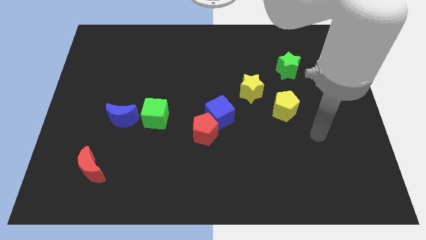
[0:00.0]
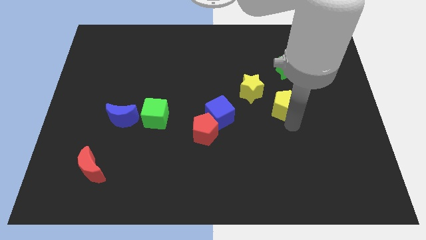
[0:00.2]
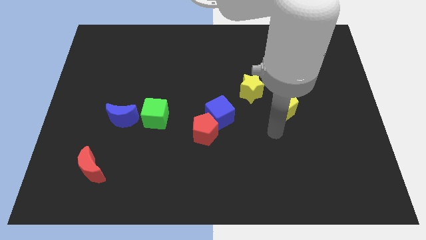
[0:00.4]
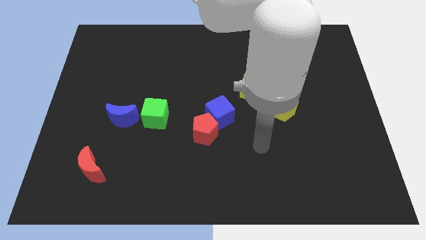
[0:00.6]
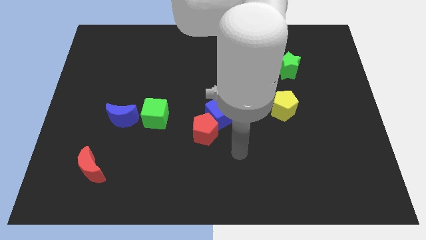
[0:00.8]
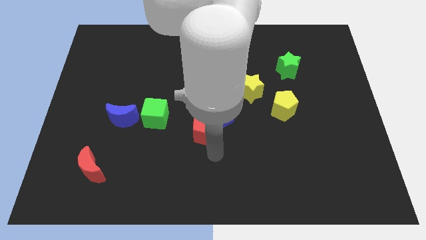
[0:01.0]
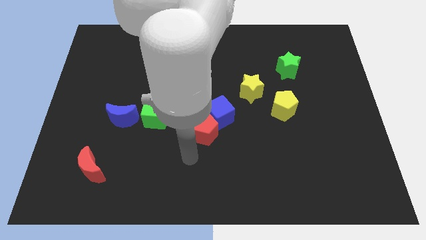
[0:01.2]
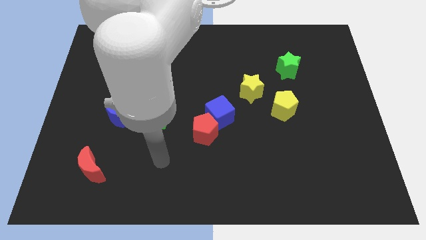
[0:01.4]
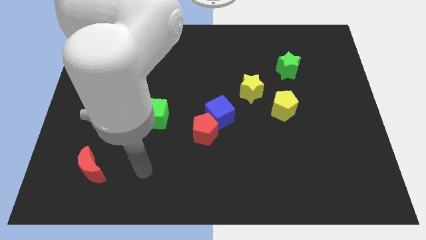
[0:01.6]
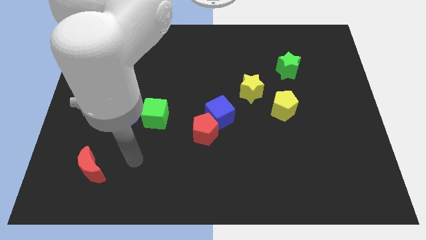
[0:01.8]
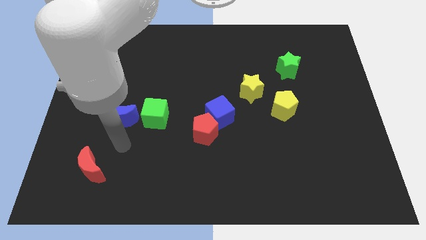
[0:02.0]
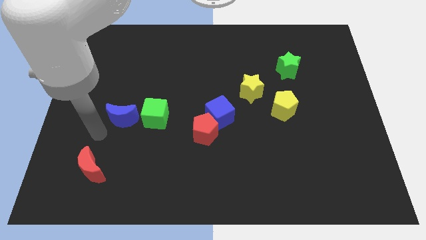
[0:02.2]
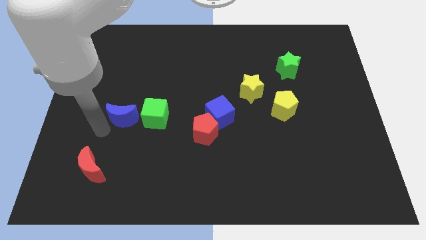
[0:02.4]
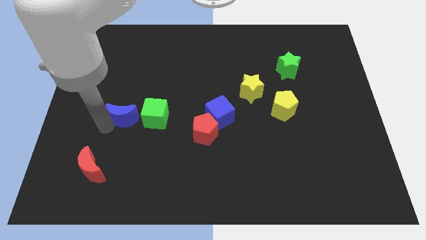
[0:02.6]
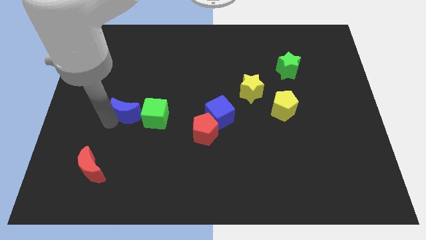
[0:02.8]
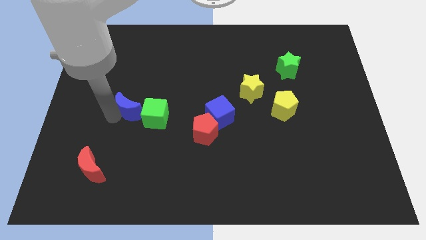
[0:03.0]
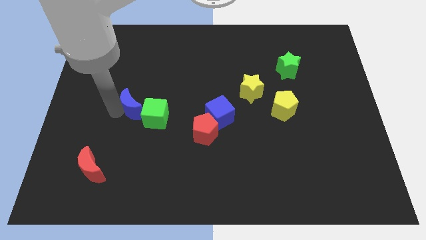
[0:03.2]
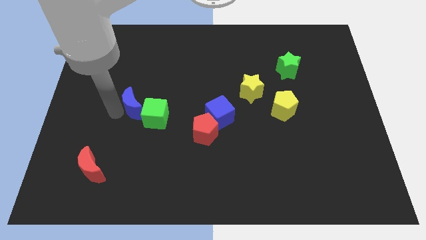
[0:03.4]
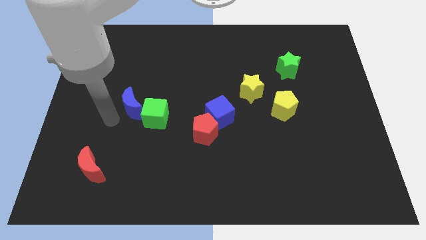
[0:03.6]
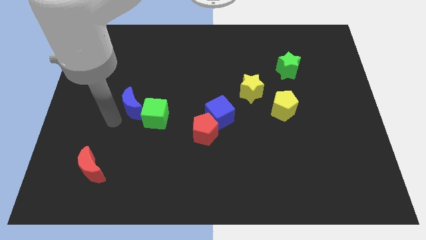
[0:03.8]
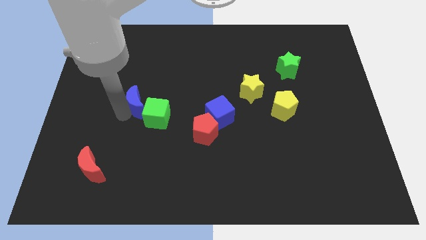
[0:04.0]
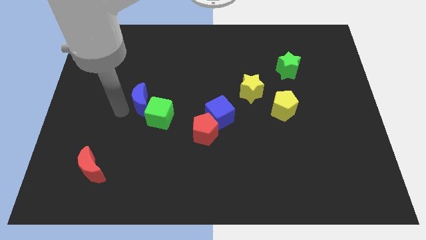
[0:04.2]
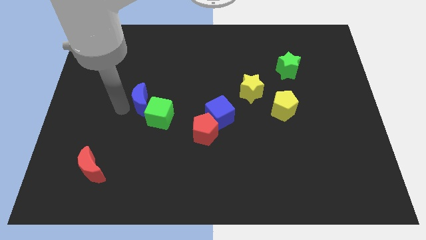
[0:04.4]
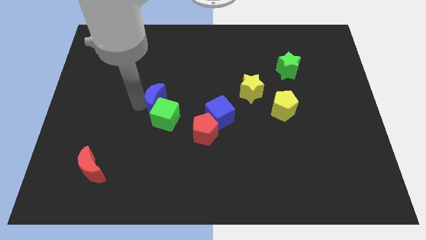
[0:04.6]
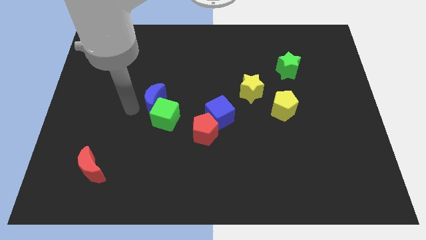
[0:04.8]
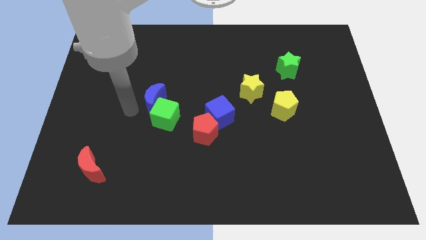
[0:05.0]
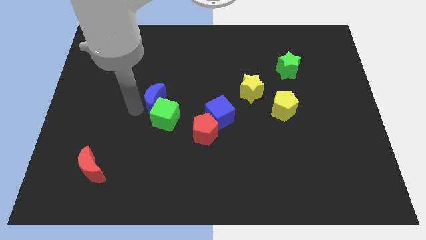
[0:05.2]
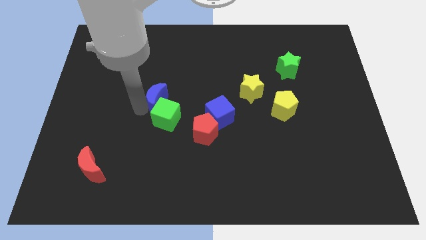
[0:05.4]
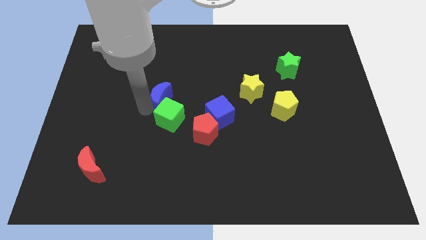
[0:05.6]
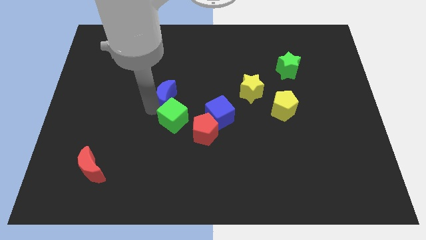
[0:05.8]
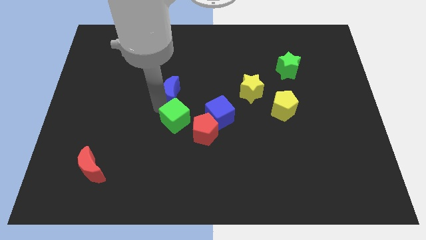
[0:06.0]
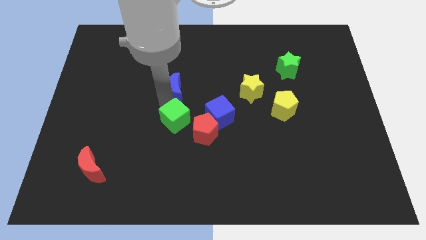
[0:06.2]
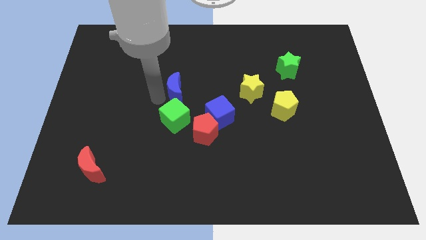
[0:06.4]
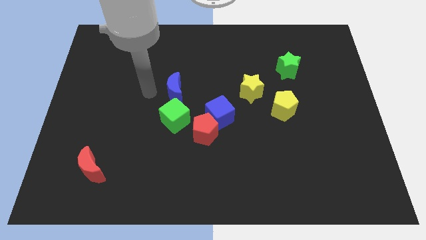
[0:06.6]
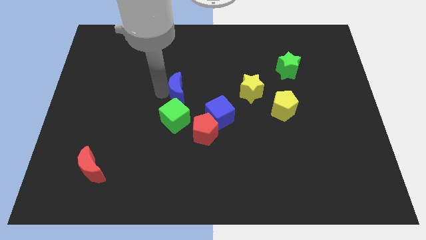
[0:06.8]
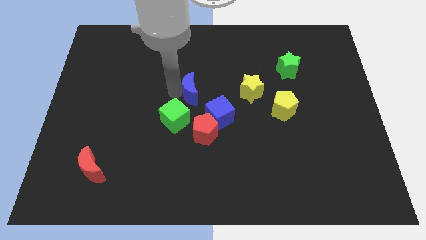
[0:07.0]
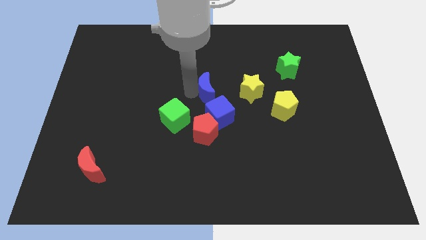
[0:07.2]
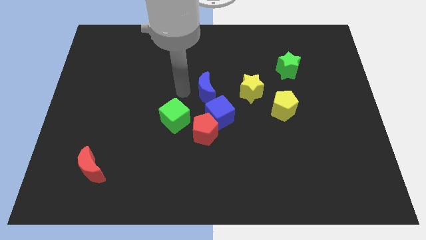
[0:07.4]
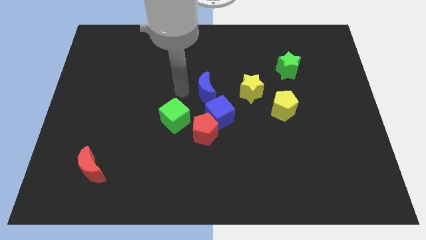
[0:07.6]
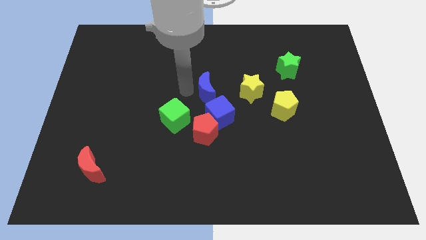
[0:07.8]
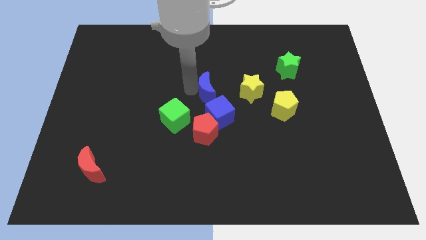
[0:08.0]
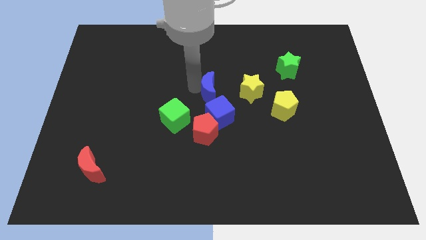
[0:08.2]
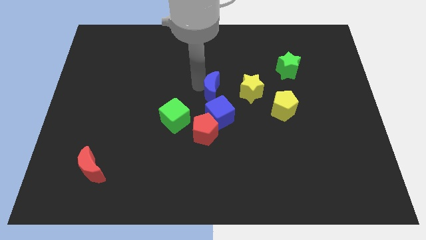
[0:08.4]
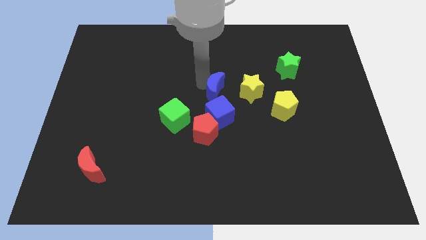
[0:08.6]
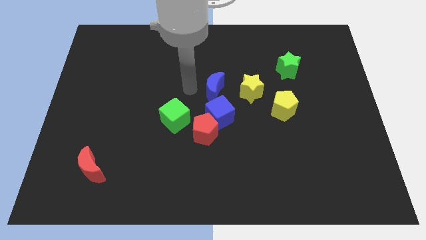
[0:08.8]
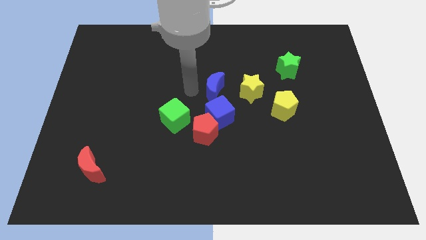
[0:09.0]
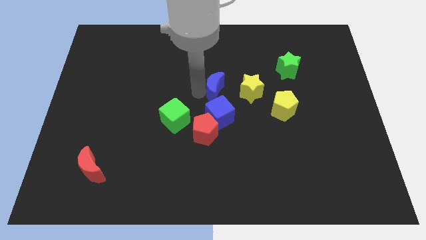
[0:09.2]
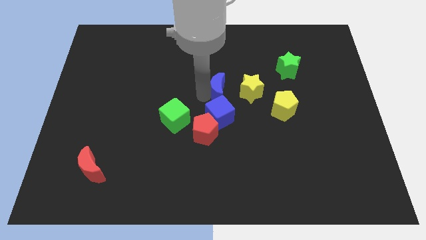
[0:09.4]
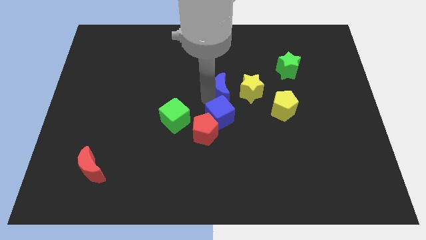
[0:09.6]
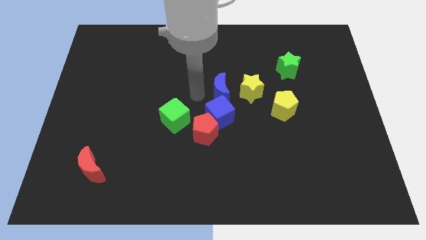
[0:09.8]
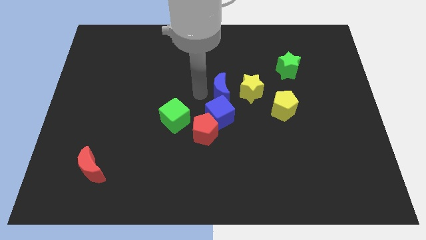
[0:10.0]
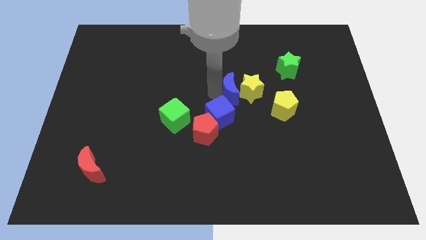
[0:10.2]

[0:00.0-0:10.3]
push the blue moon to the yellow star

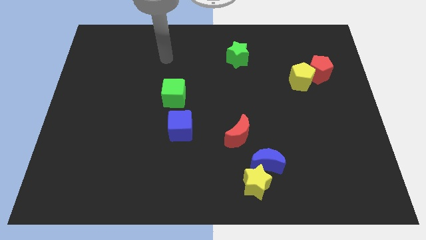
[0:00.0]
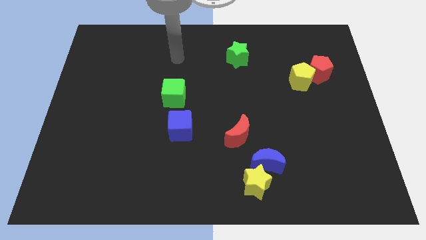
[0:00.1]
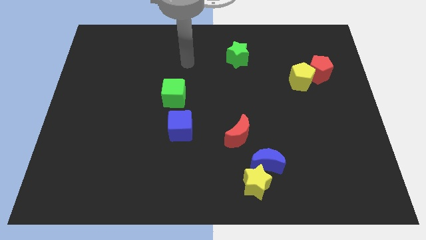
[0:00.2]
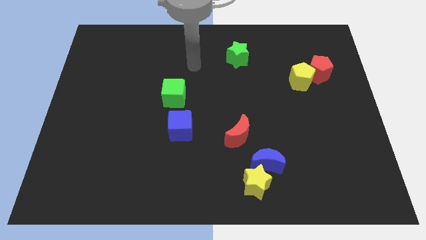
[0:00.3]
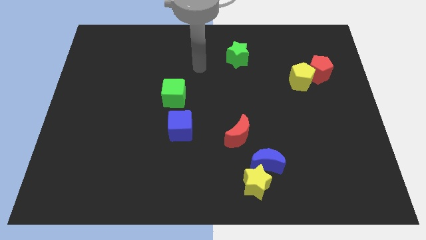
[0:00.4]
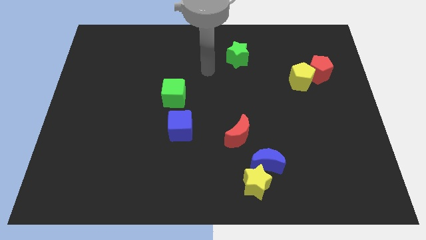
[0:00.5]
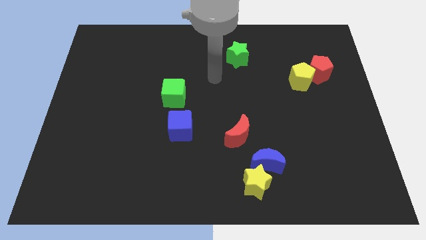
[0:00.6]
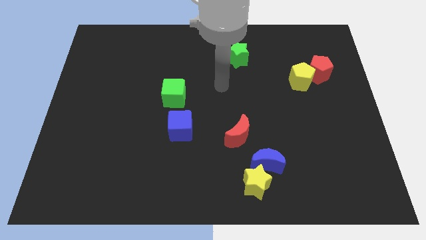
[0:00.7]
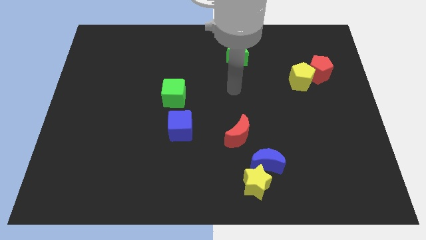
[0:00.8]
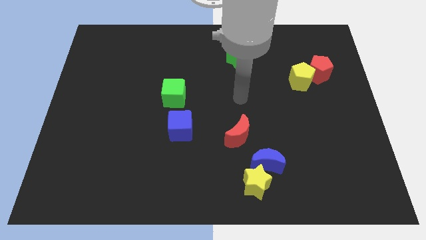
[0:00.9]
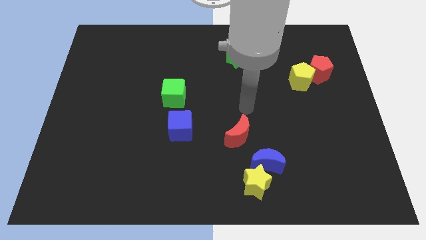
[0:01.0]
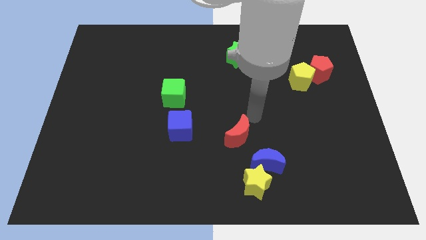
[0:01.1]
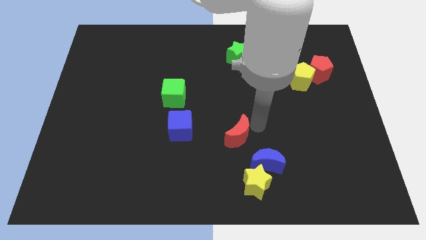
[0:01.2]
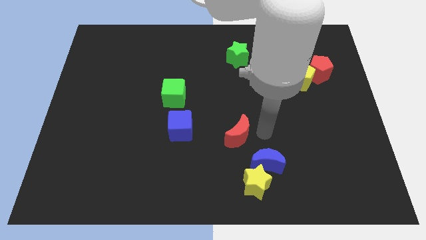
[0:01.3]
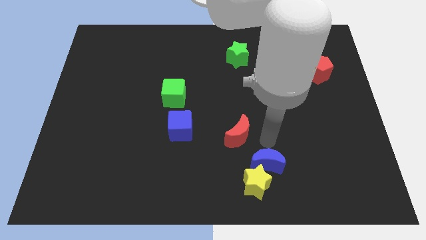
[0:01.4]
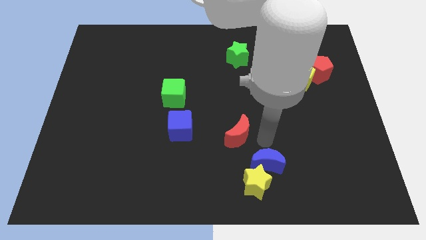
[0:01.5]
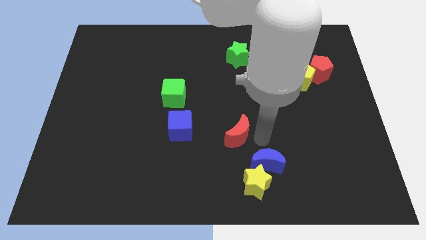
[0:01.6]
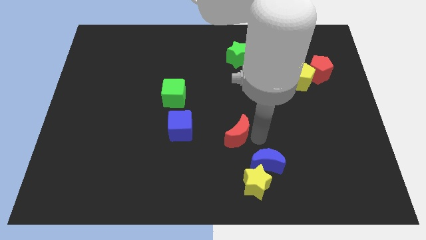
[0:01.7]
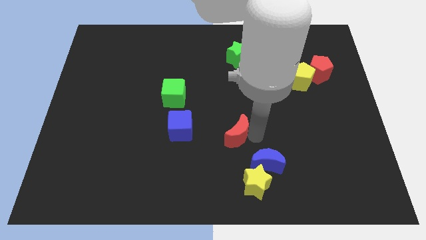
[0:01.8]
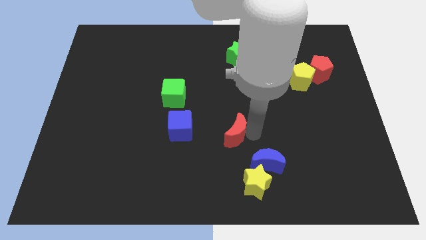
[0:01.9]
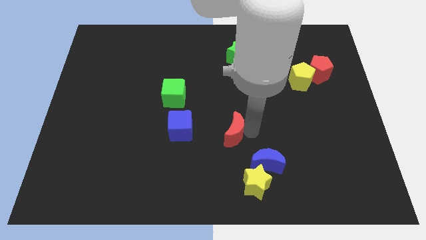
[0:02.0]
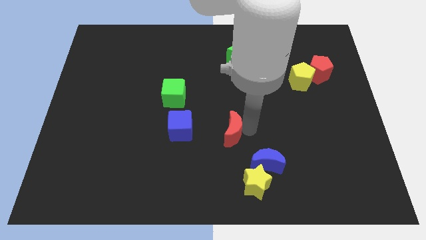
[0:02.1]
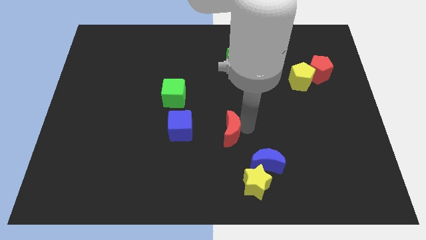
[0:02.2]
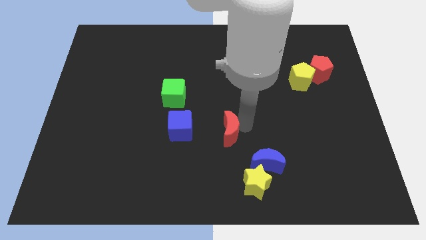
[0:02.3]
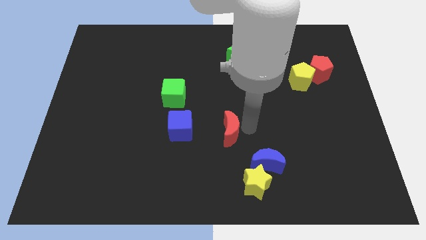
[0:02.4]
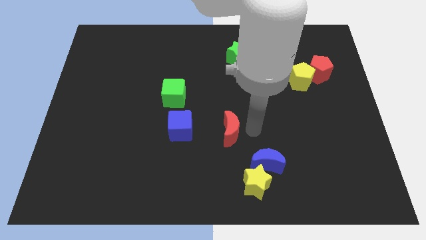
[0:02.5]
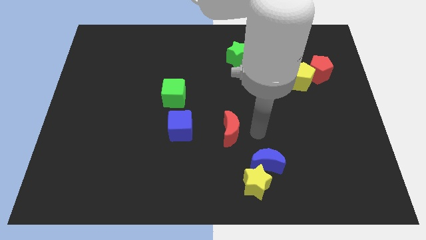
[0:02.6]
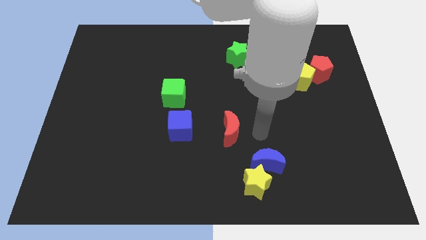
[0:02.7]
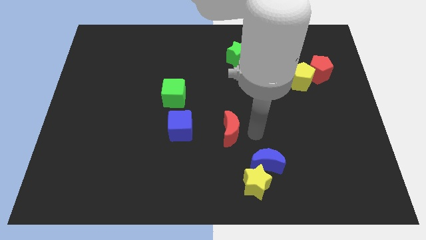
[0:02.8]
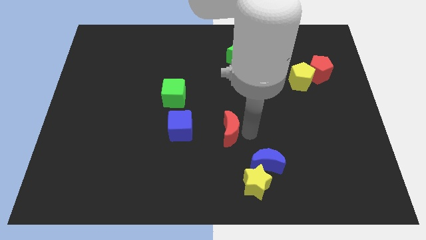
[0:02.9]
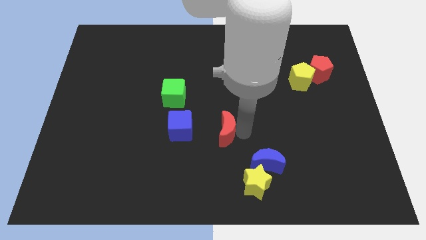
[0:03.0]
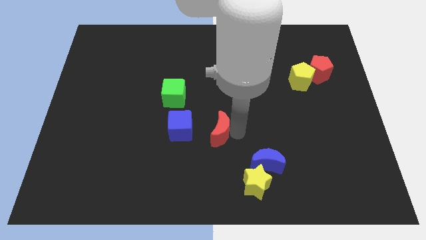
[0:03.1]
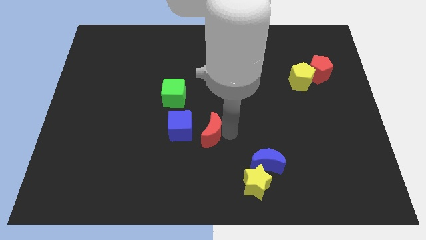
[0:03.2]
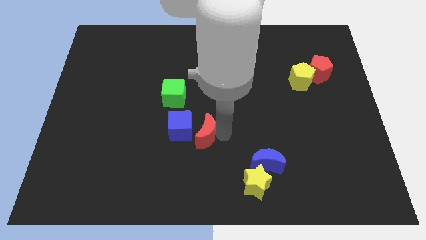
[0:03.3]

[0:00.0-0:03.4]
slide the red moon close to the blue cube
